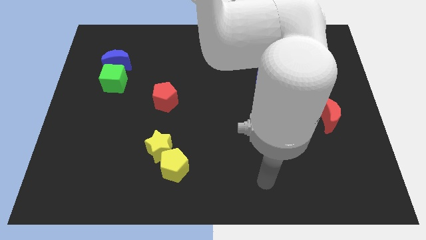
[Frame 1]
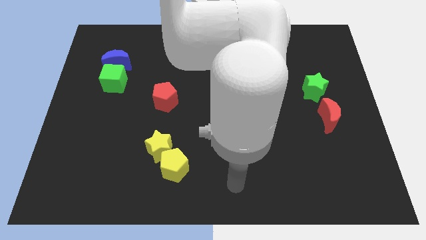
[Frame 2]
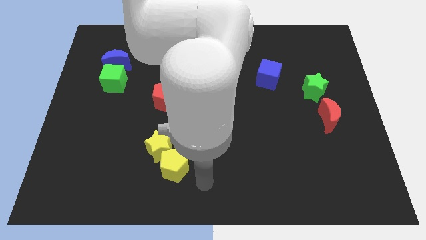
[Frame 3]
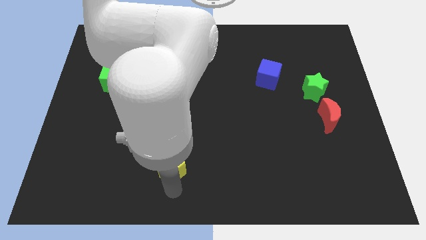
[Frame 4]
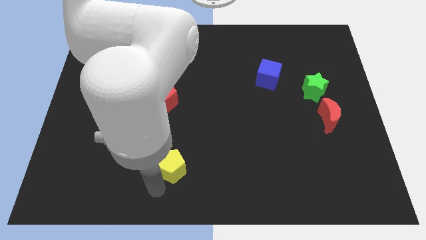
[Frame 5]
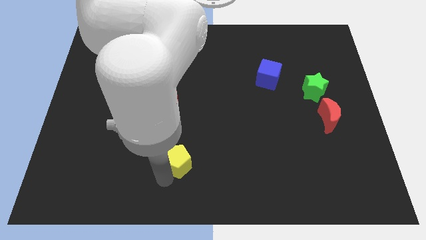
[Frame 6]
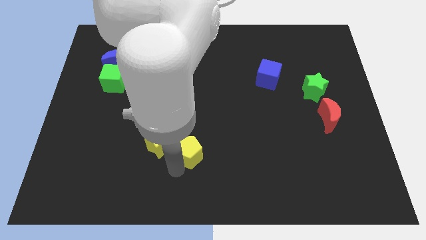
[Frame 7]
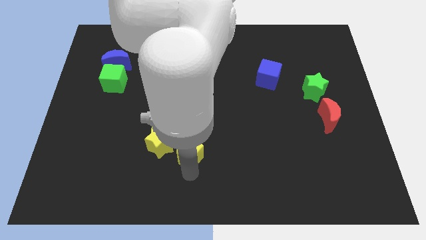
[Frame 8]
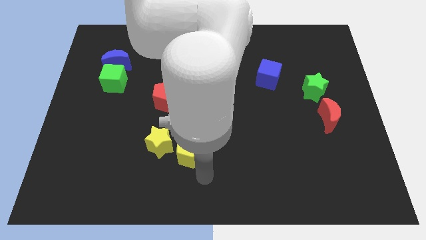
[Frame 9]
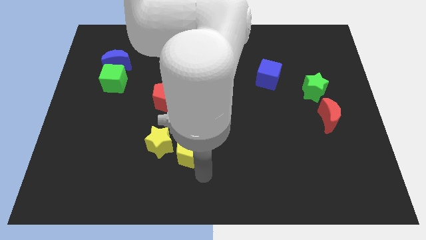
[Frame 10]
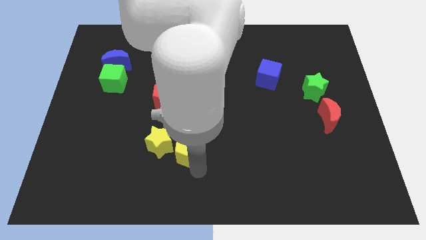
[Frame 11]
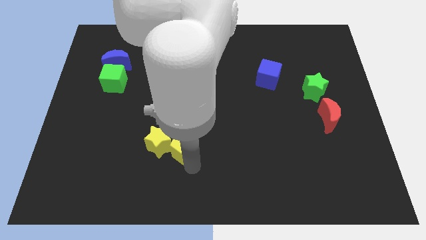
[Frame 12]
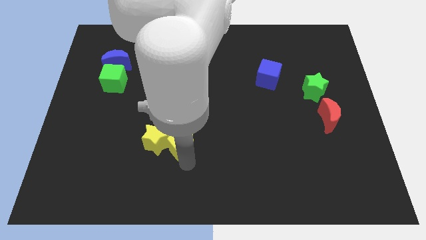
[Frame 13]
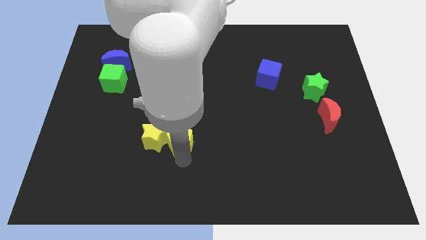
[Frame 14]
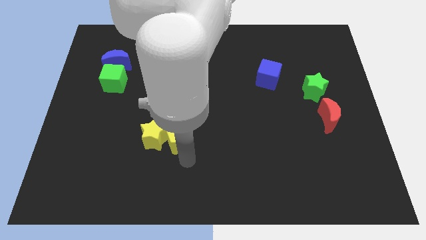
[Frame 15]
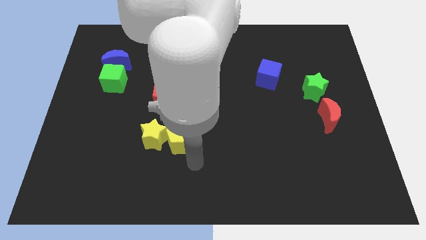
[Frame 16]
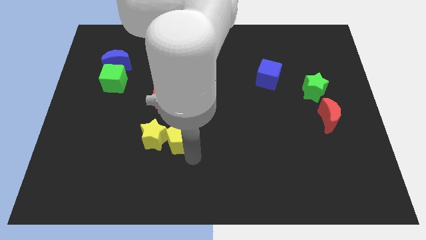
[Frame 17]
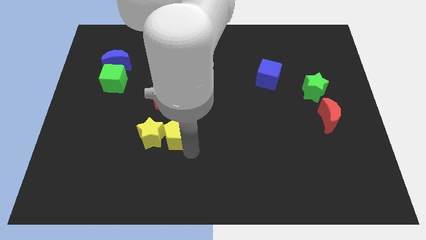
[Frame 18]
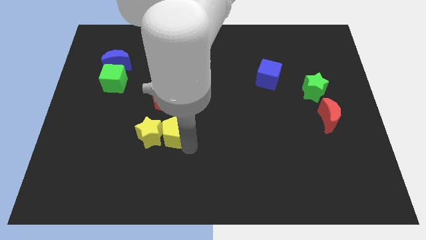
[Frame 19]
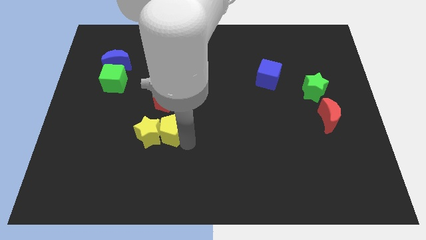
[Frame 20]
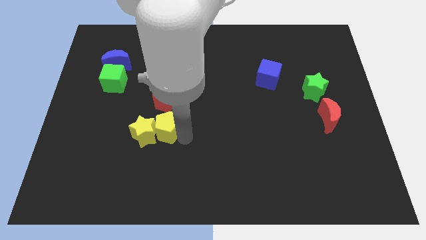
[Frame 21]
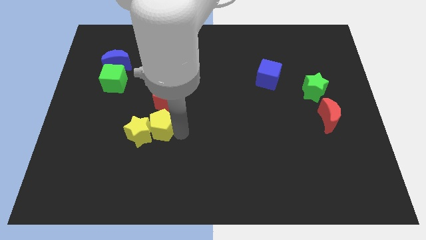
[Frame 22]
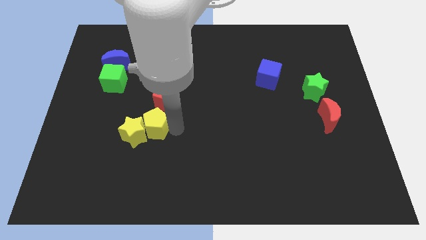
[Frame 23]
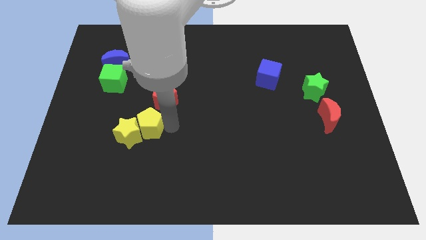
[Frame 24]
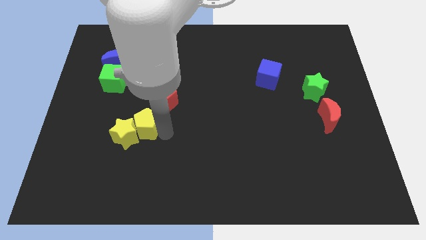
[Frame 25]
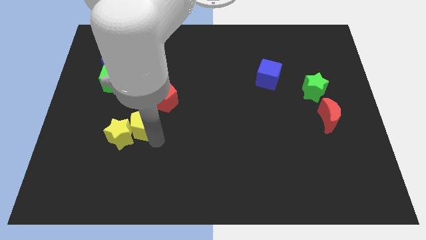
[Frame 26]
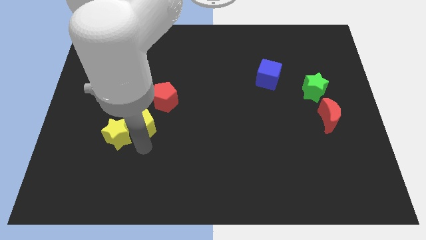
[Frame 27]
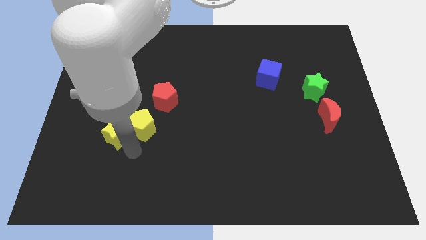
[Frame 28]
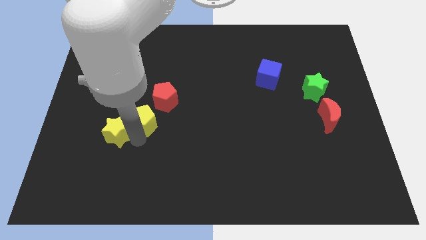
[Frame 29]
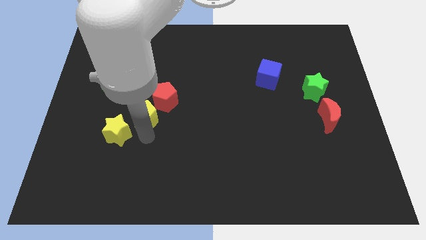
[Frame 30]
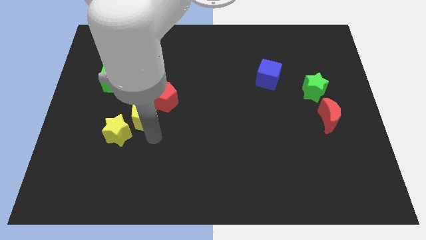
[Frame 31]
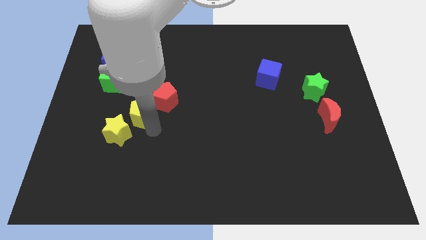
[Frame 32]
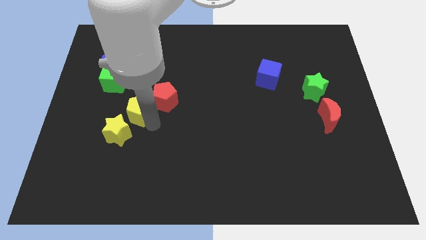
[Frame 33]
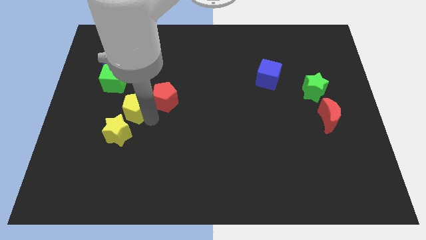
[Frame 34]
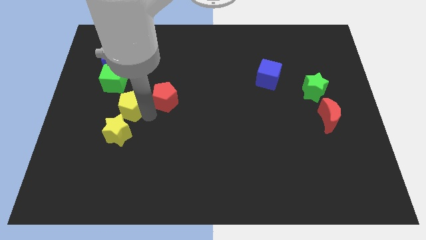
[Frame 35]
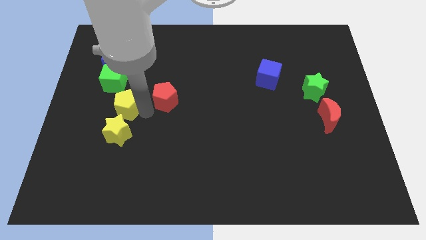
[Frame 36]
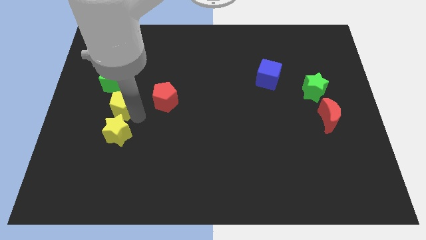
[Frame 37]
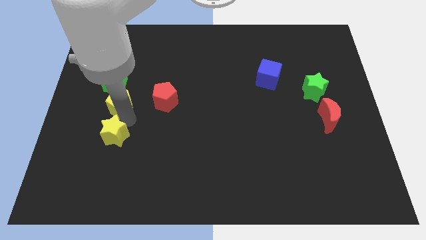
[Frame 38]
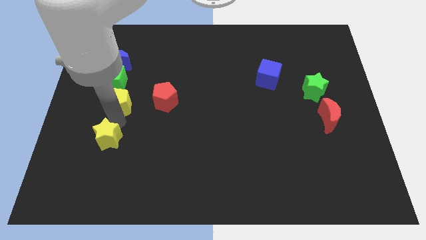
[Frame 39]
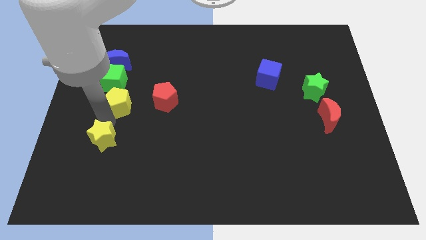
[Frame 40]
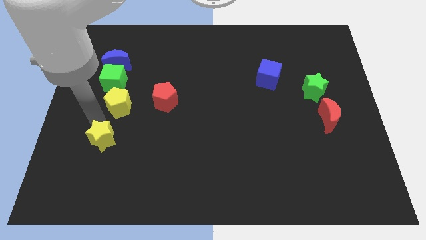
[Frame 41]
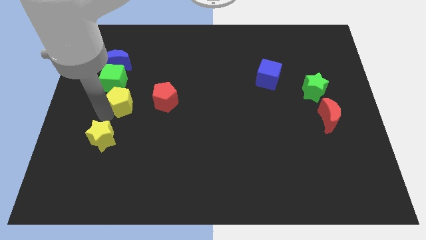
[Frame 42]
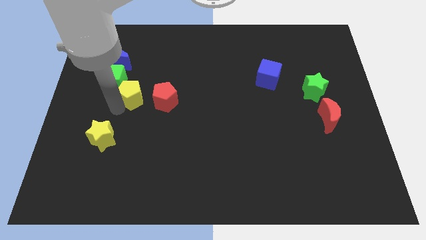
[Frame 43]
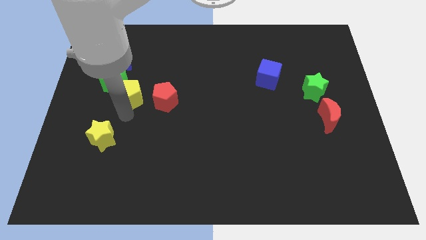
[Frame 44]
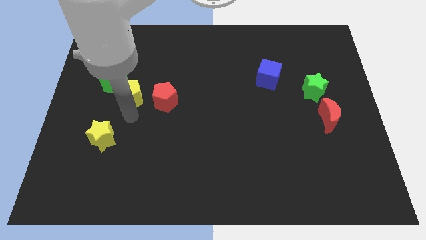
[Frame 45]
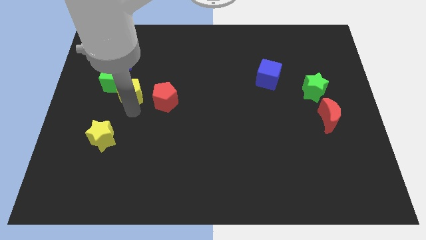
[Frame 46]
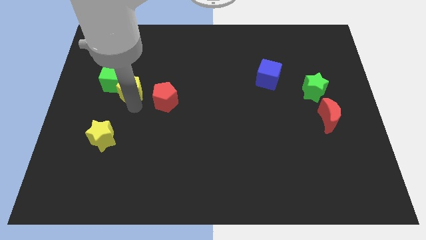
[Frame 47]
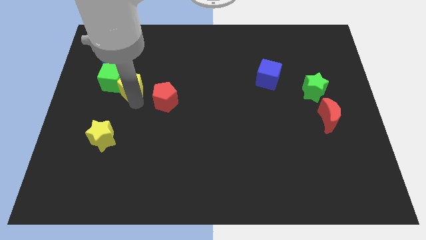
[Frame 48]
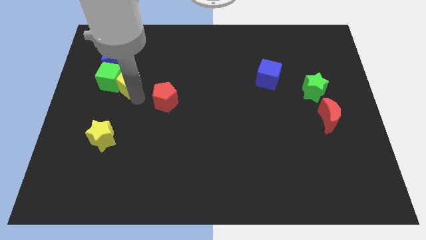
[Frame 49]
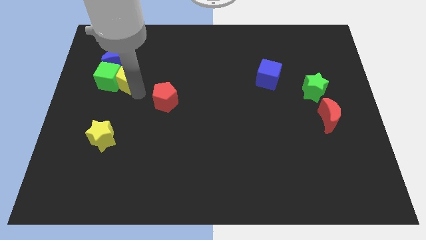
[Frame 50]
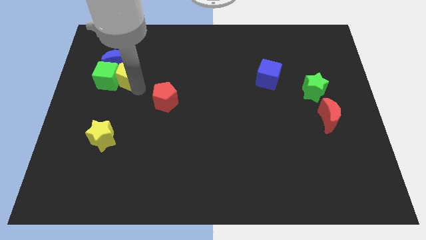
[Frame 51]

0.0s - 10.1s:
put the yellow pentagon close to the blue moon

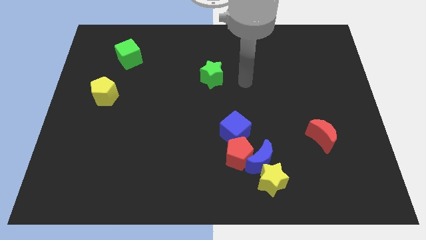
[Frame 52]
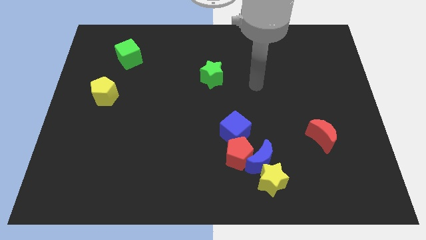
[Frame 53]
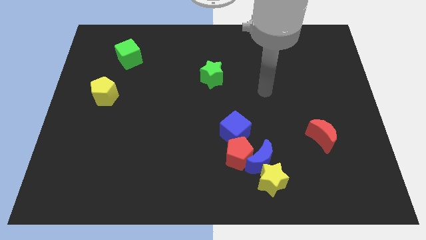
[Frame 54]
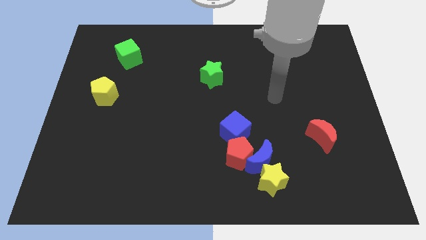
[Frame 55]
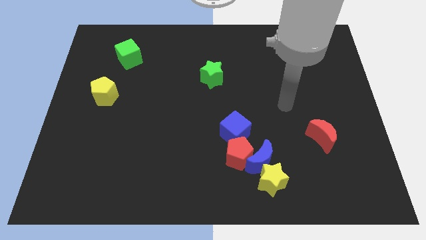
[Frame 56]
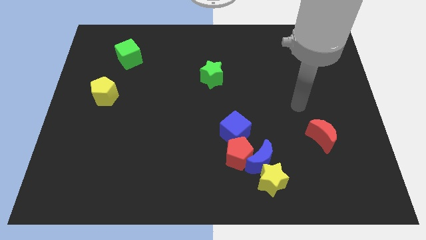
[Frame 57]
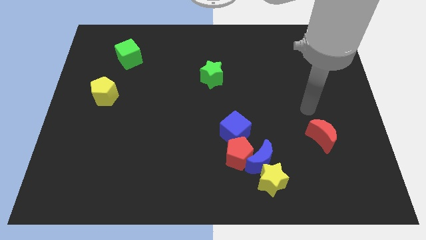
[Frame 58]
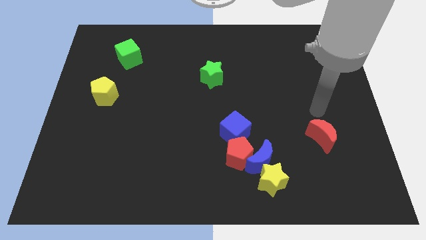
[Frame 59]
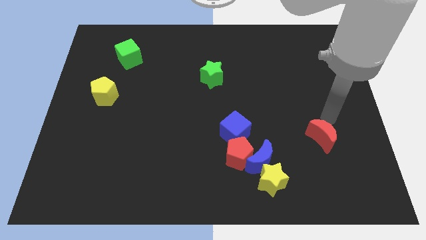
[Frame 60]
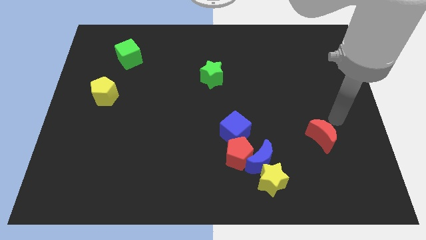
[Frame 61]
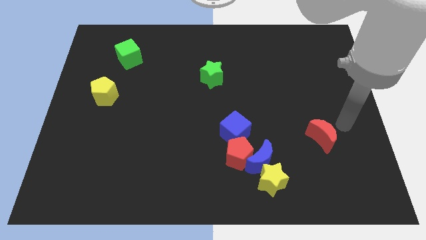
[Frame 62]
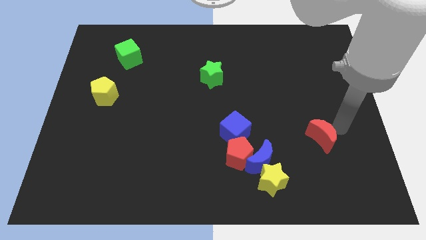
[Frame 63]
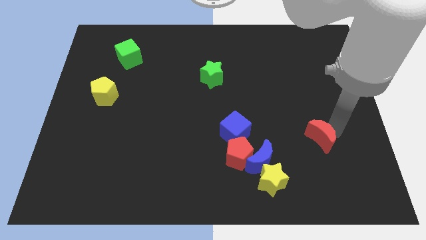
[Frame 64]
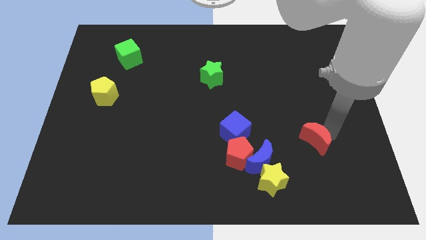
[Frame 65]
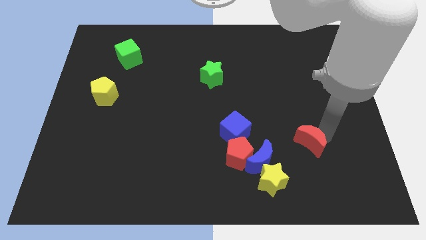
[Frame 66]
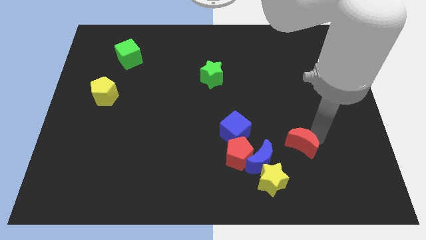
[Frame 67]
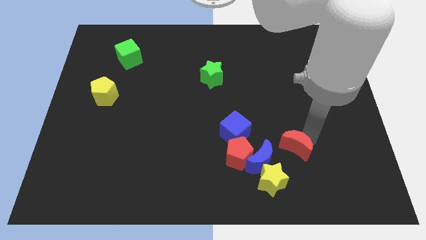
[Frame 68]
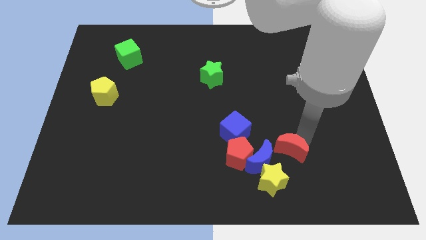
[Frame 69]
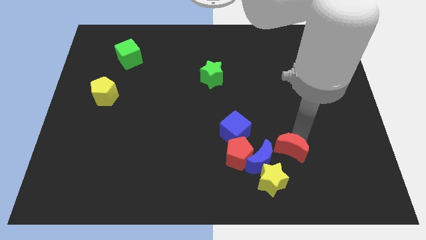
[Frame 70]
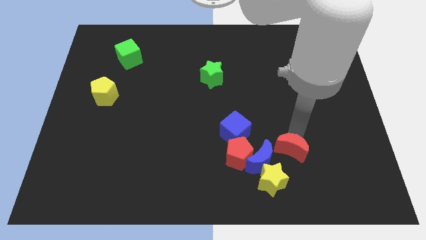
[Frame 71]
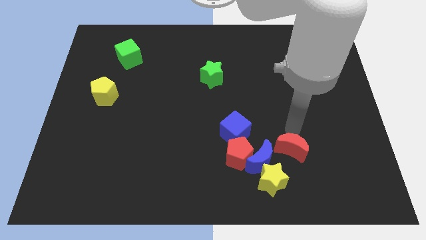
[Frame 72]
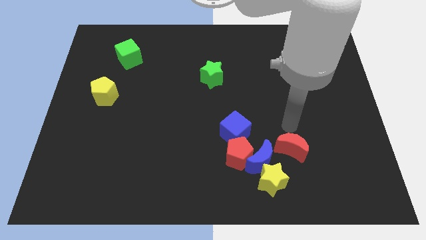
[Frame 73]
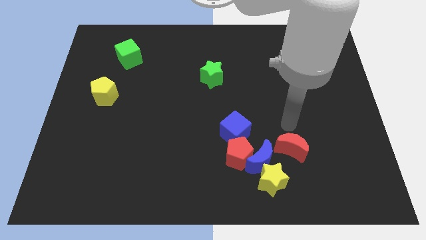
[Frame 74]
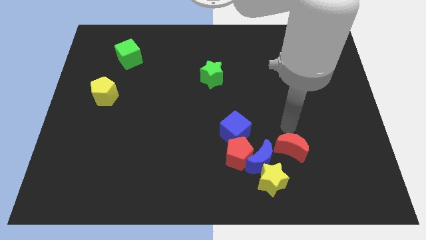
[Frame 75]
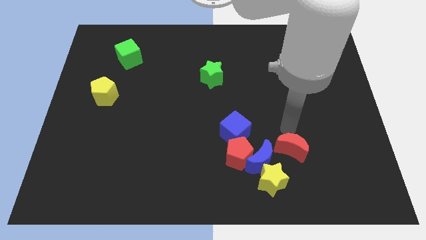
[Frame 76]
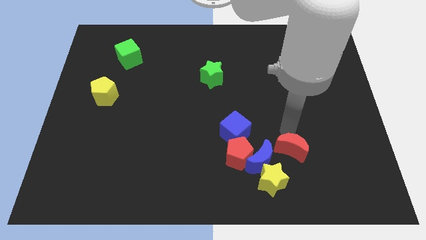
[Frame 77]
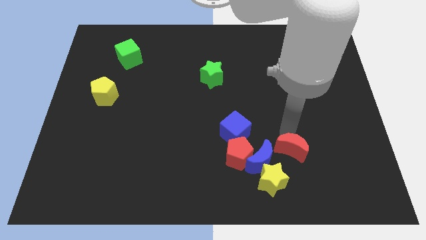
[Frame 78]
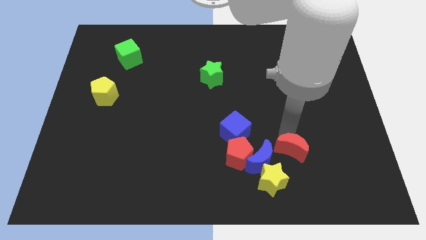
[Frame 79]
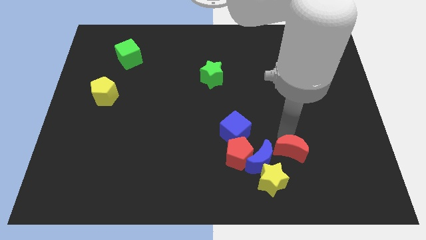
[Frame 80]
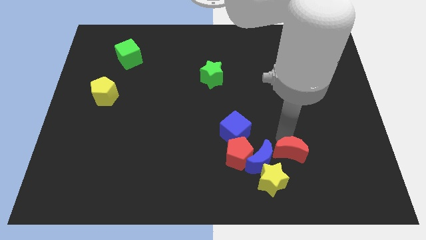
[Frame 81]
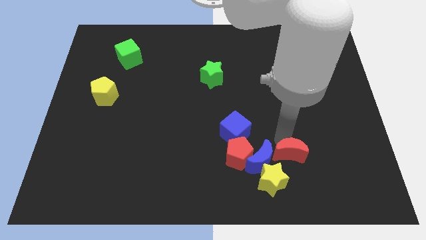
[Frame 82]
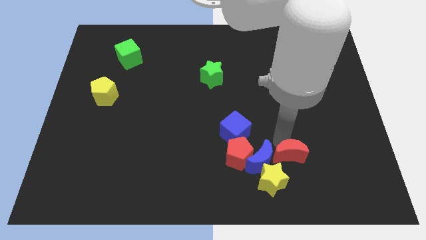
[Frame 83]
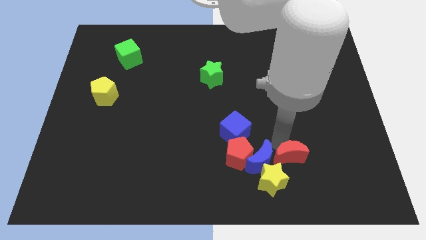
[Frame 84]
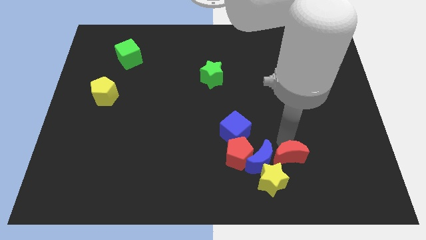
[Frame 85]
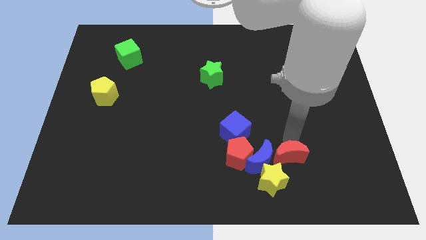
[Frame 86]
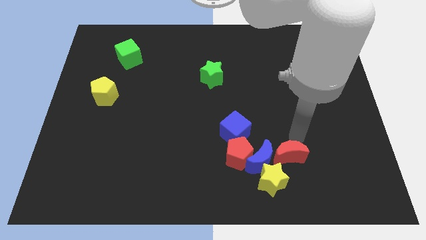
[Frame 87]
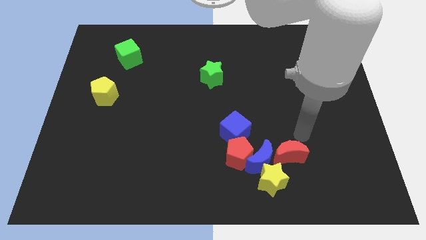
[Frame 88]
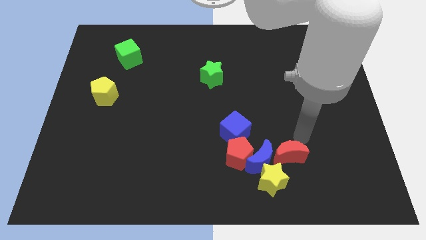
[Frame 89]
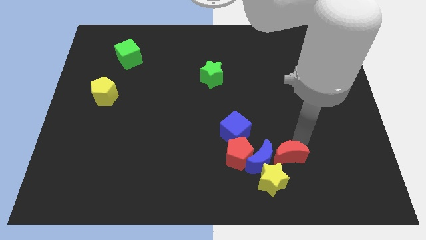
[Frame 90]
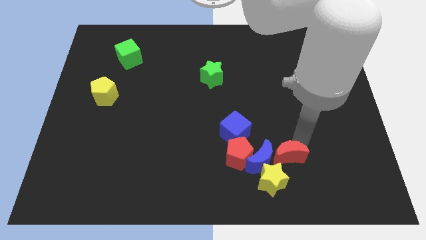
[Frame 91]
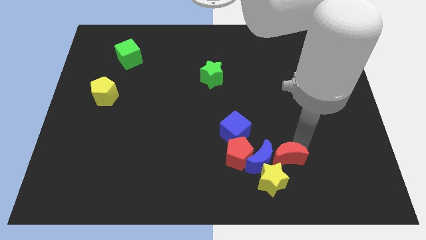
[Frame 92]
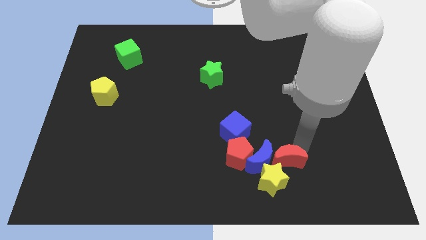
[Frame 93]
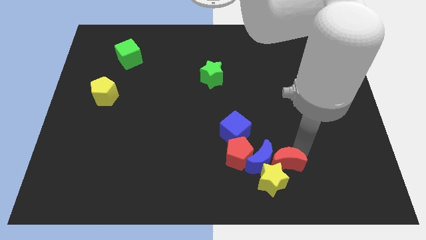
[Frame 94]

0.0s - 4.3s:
slide the red moon close to the yellow star
